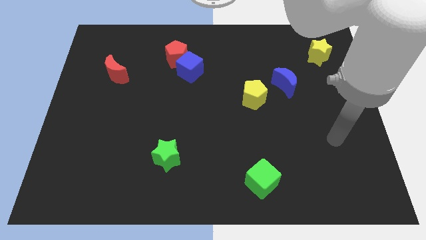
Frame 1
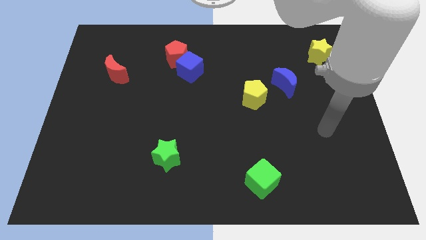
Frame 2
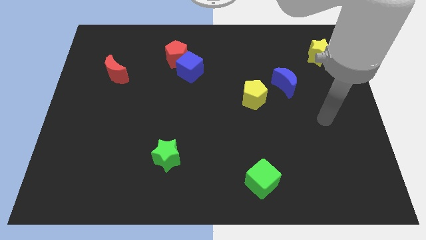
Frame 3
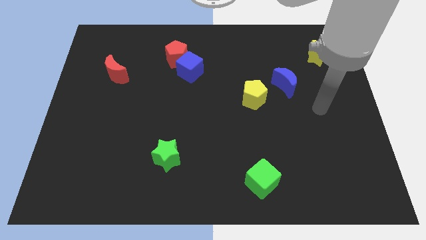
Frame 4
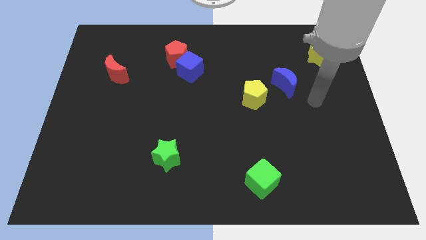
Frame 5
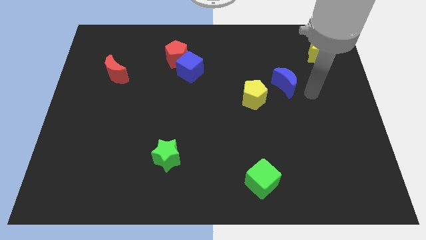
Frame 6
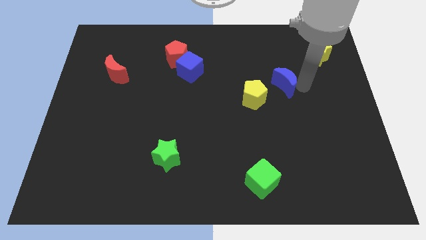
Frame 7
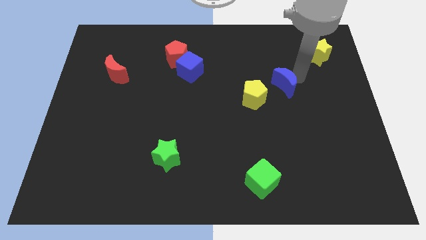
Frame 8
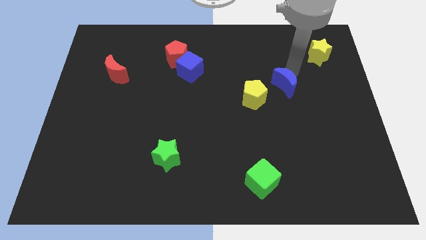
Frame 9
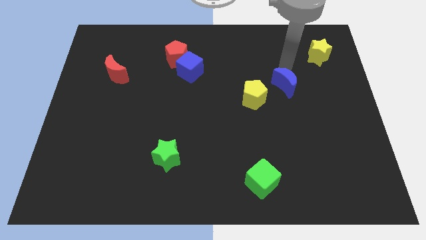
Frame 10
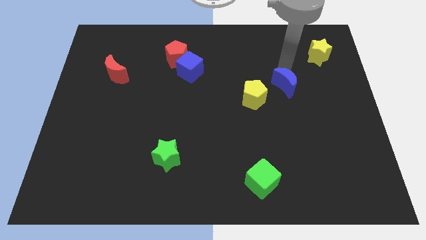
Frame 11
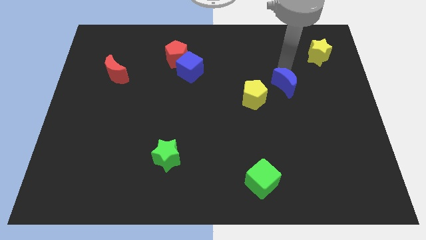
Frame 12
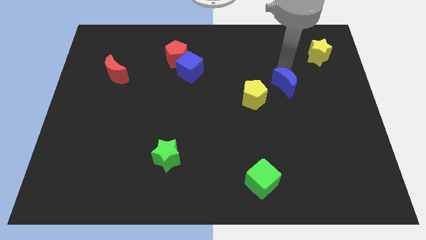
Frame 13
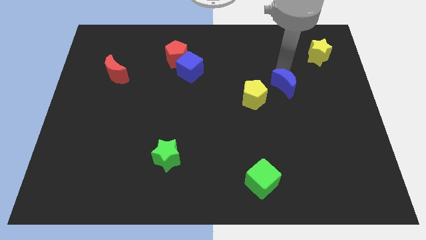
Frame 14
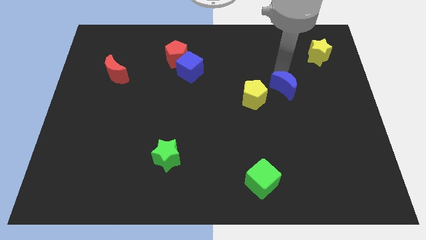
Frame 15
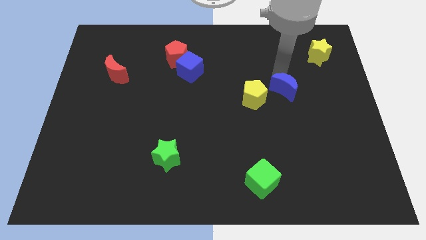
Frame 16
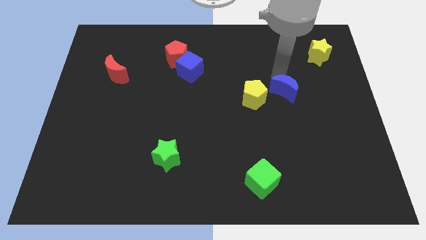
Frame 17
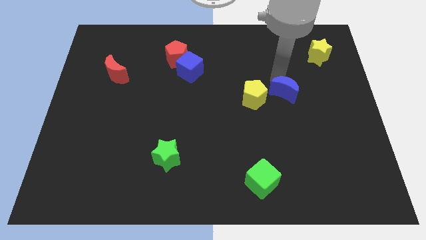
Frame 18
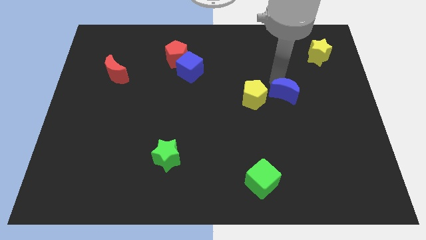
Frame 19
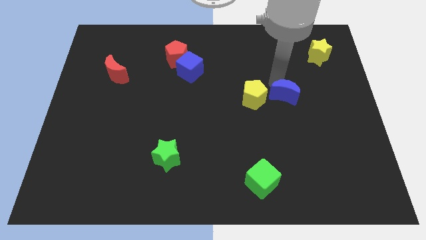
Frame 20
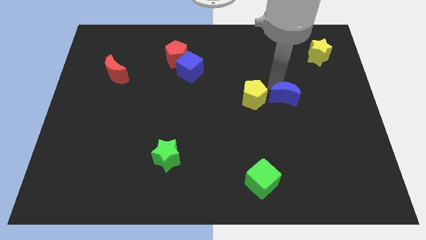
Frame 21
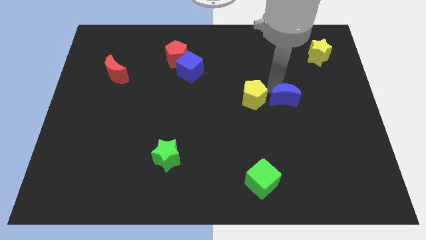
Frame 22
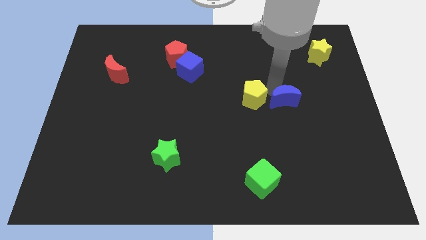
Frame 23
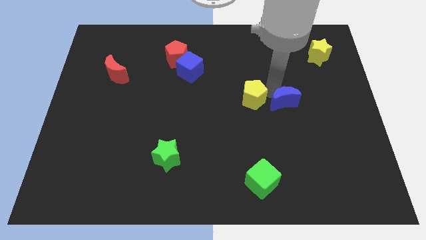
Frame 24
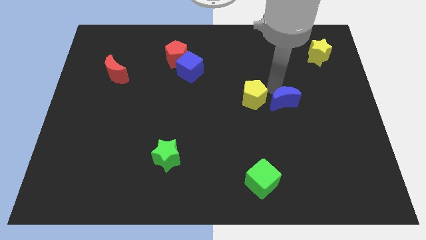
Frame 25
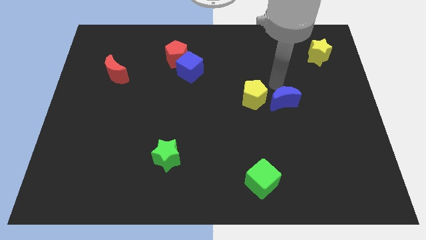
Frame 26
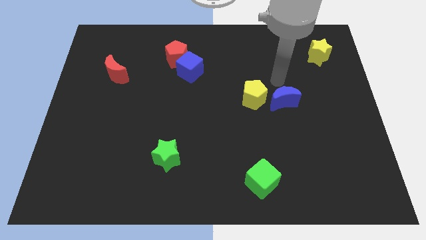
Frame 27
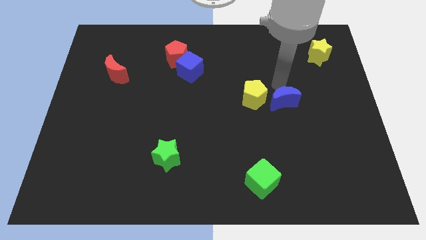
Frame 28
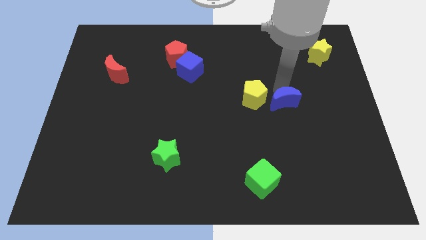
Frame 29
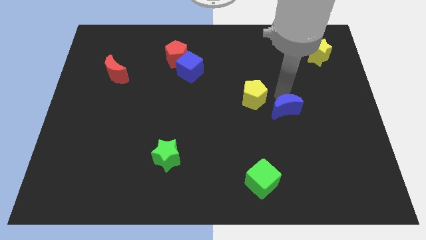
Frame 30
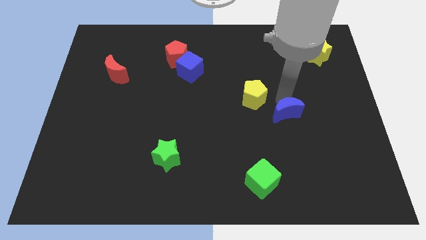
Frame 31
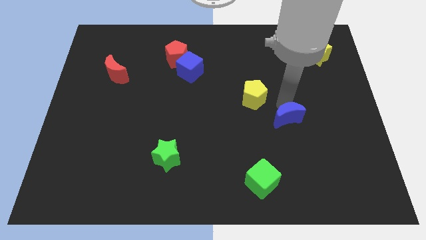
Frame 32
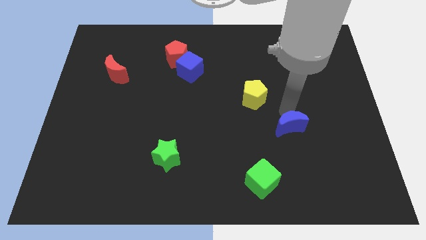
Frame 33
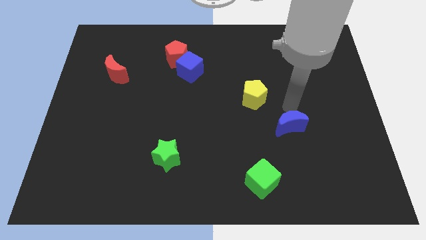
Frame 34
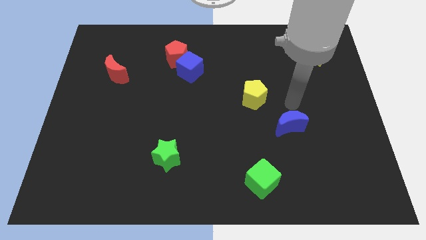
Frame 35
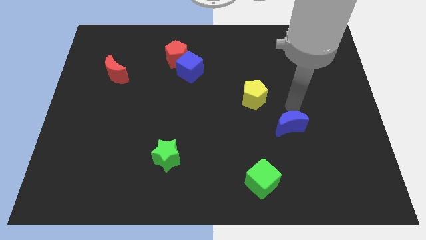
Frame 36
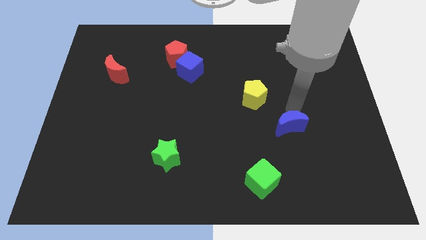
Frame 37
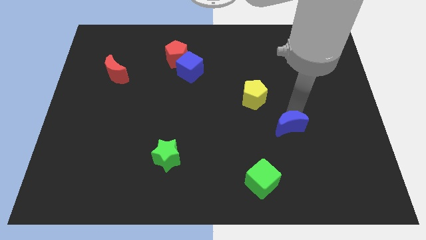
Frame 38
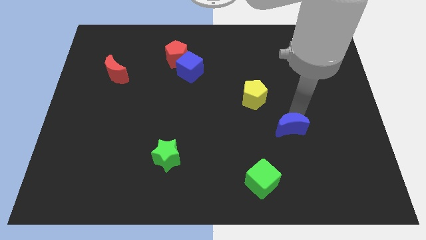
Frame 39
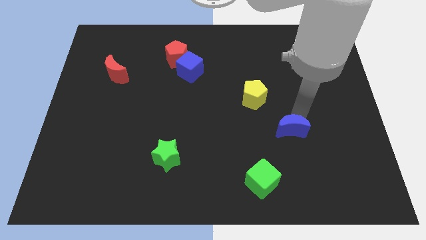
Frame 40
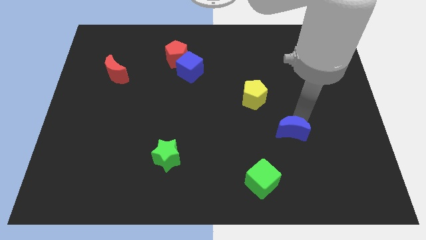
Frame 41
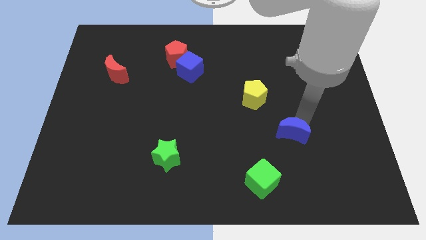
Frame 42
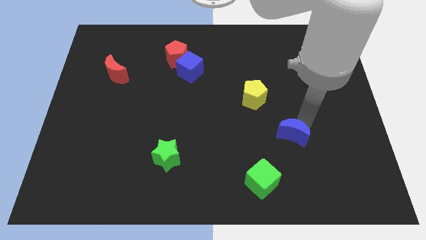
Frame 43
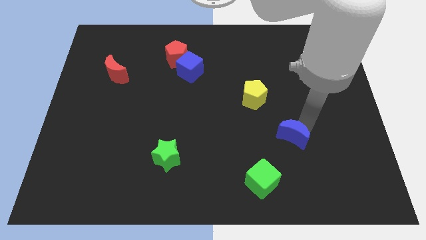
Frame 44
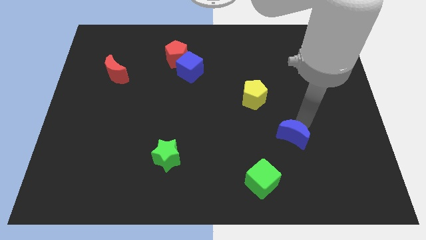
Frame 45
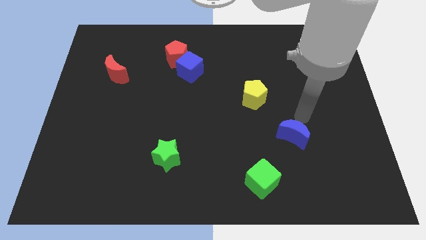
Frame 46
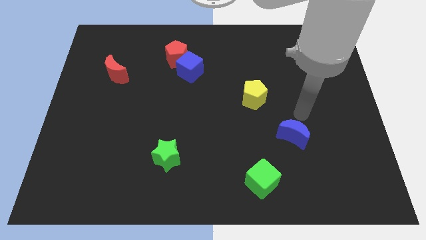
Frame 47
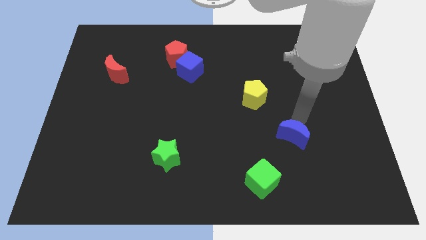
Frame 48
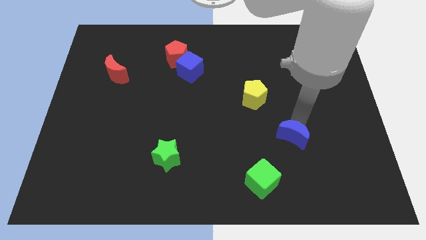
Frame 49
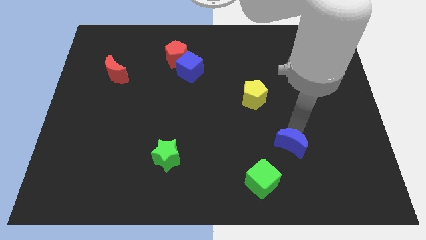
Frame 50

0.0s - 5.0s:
move the blue moon diagonally up and to the right of the green cube

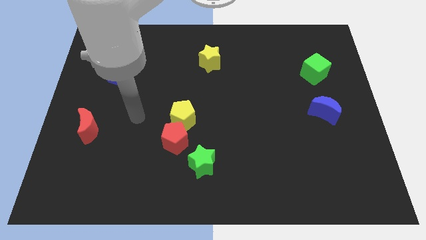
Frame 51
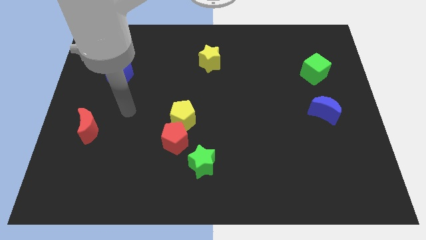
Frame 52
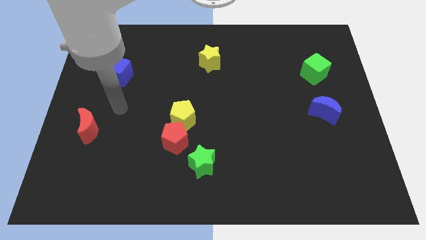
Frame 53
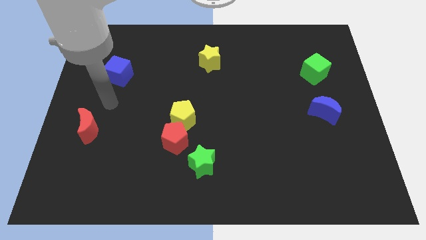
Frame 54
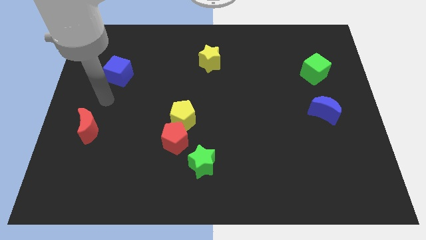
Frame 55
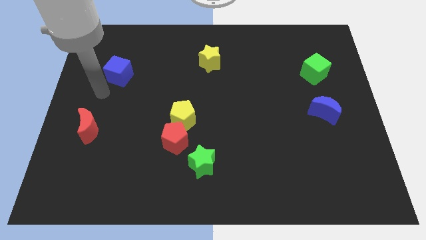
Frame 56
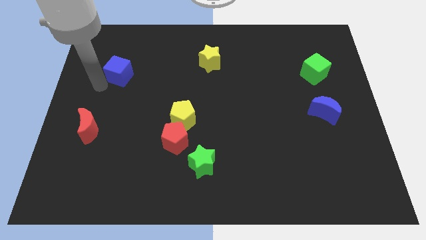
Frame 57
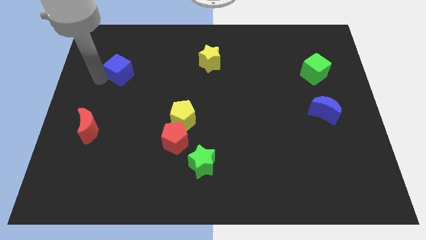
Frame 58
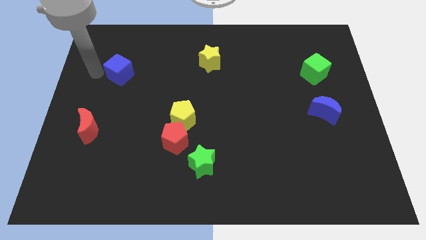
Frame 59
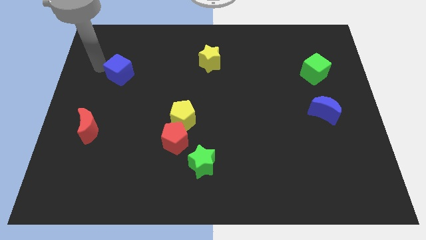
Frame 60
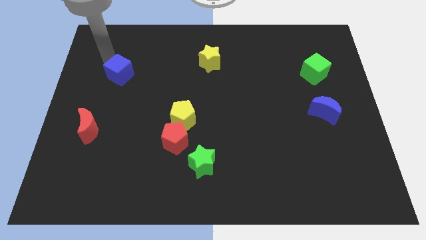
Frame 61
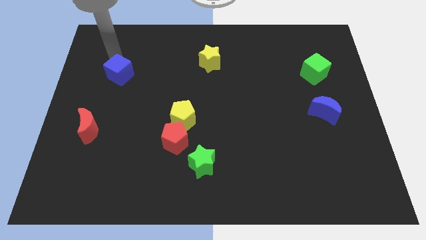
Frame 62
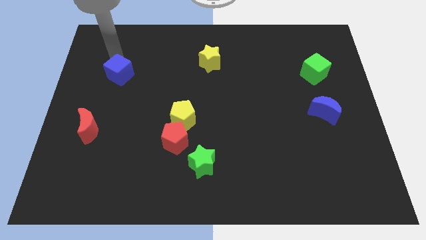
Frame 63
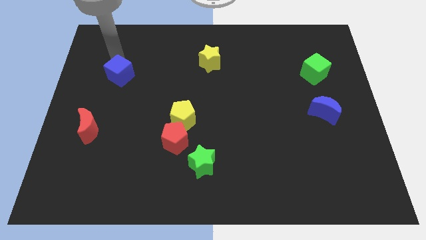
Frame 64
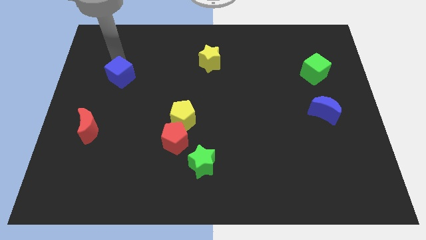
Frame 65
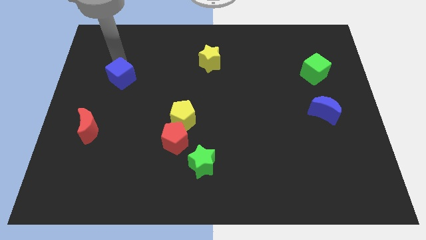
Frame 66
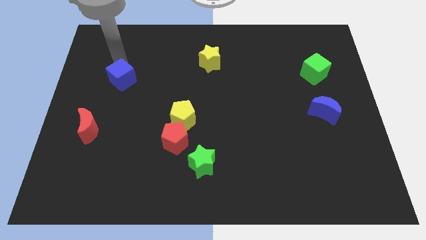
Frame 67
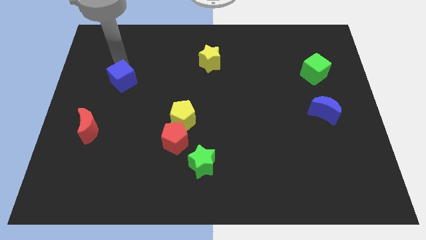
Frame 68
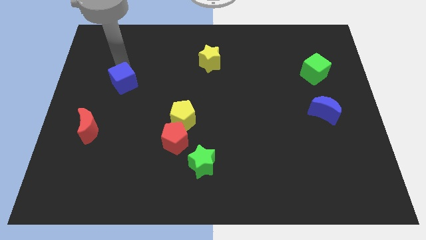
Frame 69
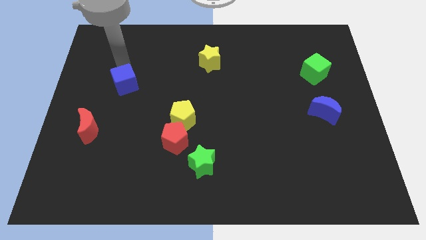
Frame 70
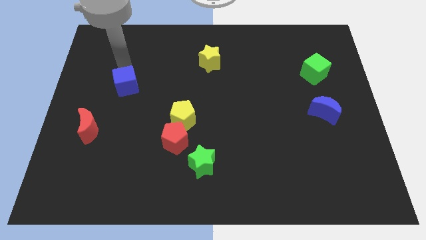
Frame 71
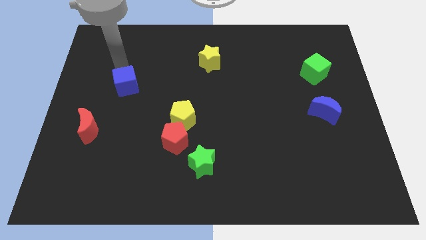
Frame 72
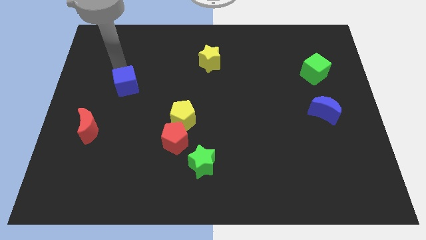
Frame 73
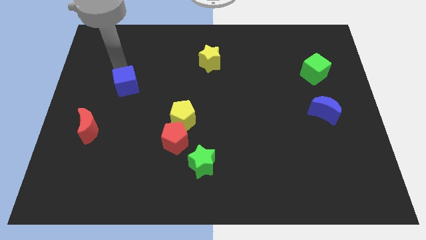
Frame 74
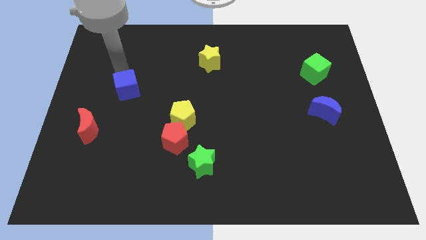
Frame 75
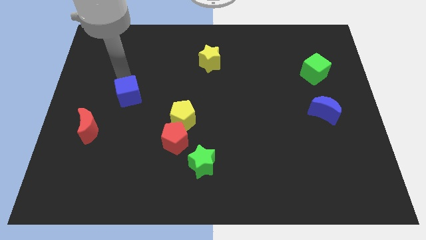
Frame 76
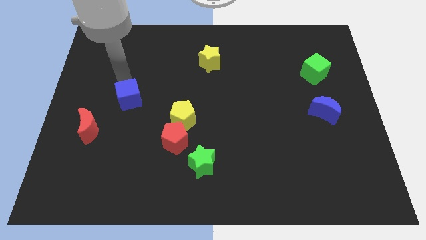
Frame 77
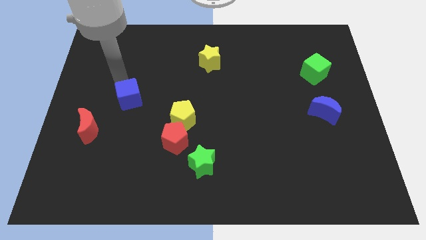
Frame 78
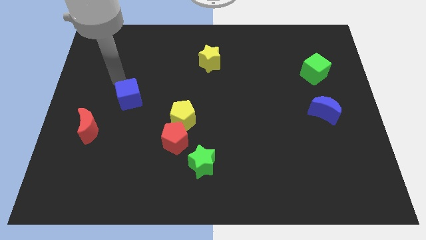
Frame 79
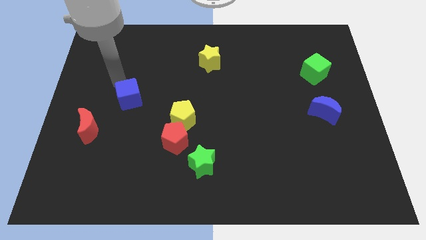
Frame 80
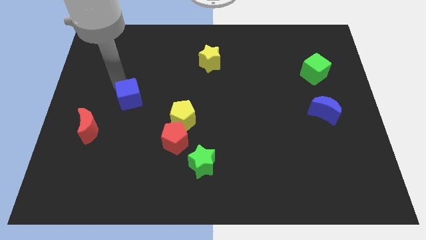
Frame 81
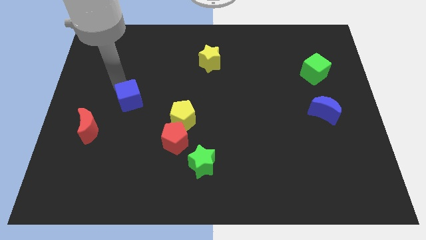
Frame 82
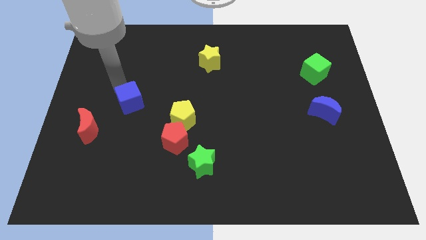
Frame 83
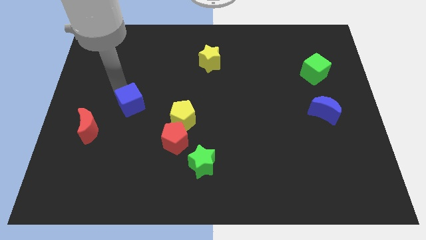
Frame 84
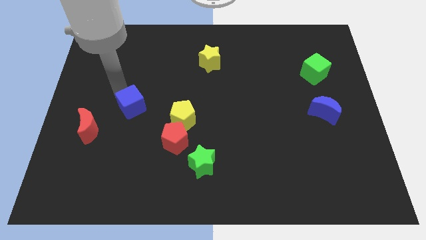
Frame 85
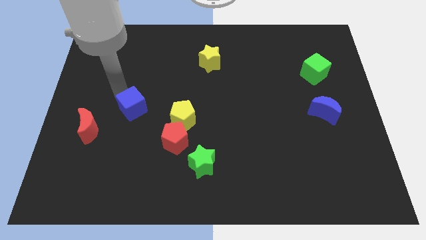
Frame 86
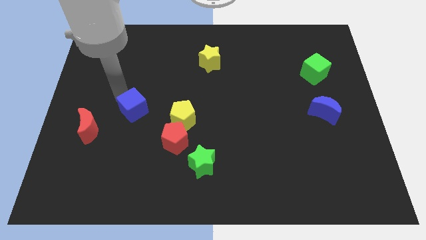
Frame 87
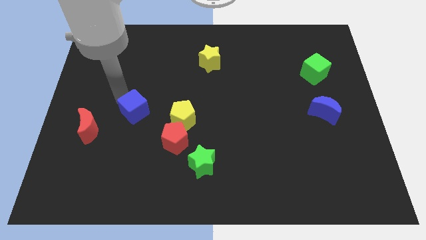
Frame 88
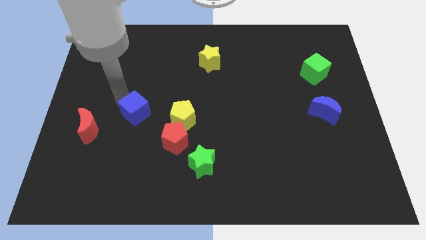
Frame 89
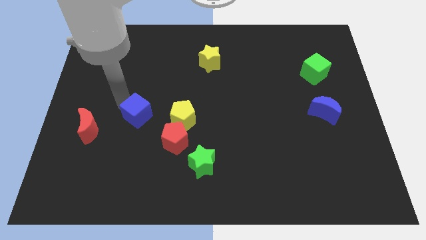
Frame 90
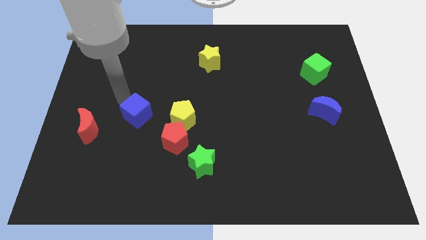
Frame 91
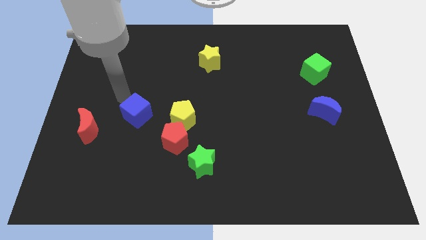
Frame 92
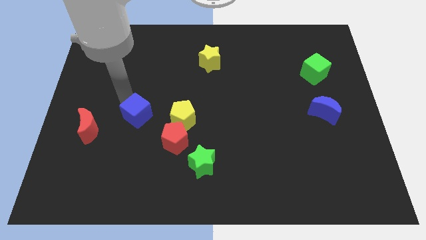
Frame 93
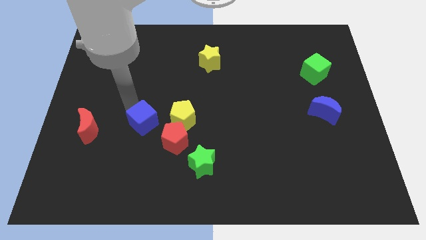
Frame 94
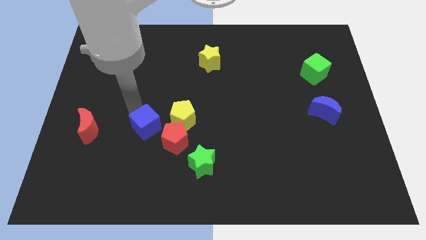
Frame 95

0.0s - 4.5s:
slide the blue cube to the bottom left of the yellow pentagon
